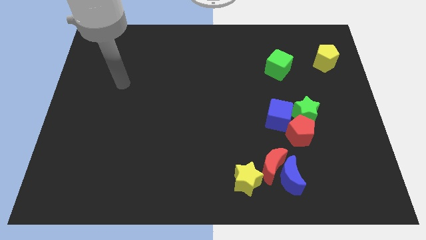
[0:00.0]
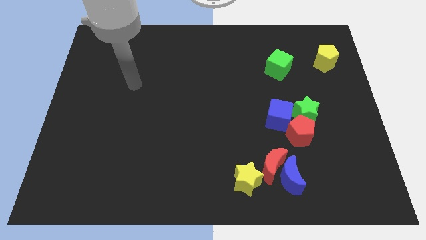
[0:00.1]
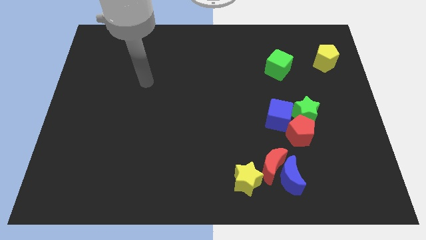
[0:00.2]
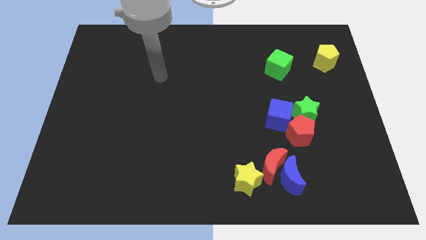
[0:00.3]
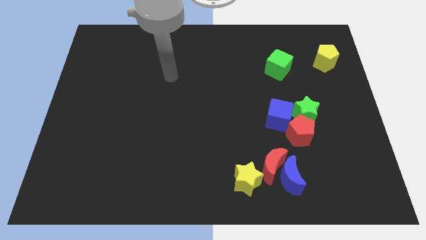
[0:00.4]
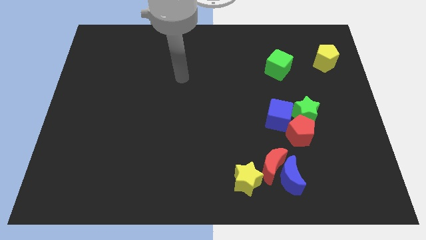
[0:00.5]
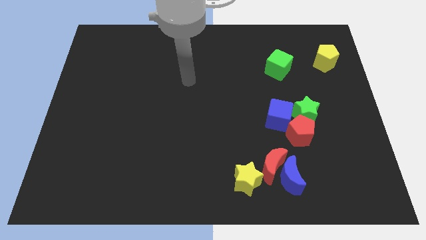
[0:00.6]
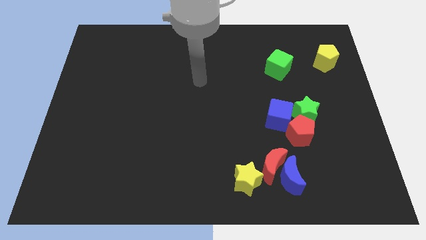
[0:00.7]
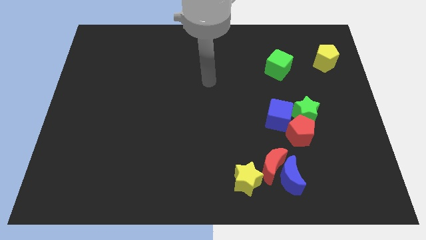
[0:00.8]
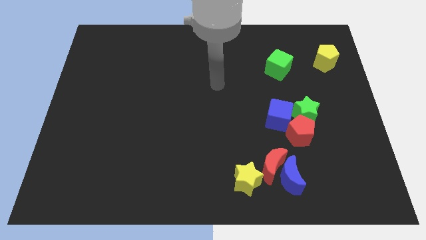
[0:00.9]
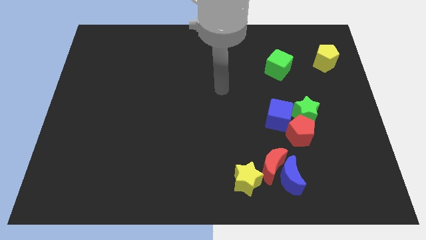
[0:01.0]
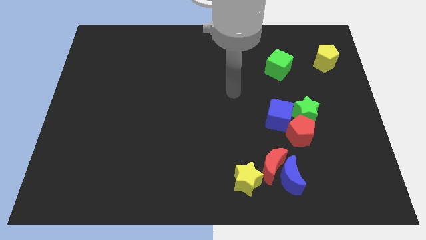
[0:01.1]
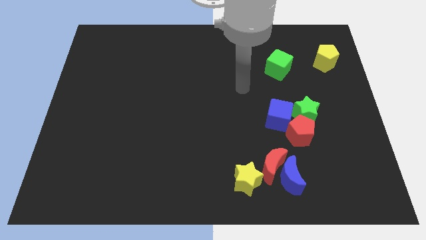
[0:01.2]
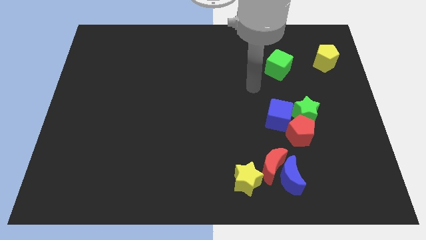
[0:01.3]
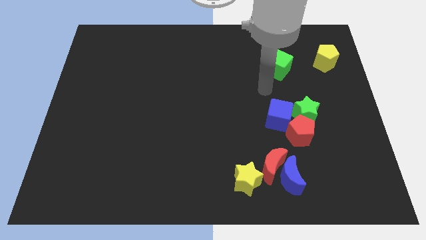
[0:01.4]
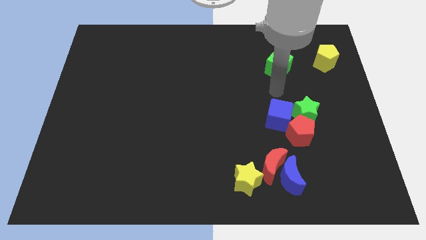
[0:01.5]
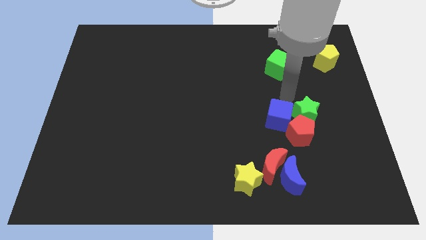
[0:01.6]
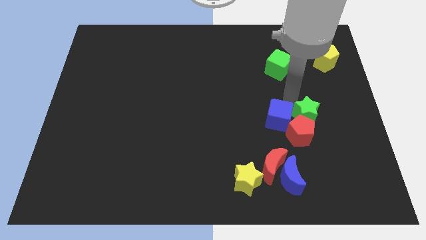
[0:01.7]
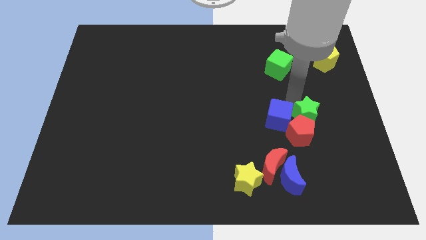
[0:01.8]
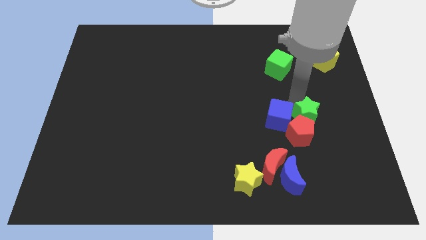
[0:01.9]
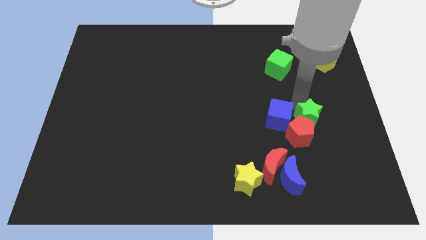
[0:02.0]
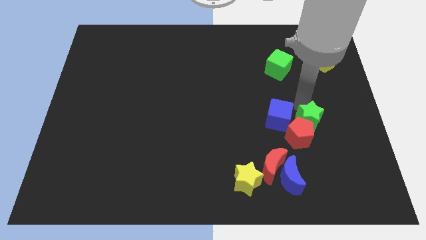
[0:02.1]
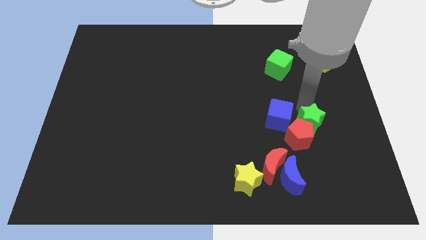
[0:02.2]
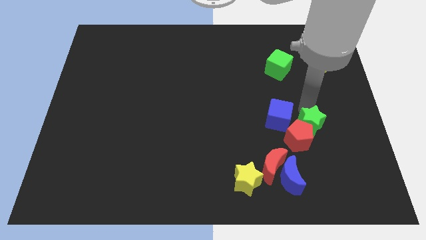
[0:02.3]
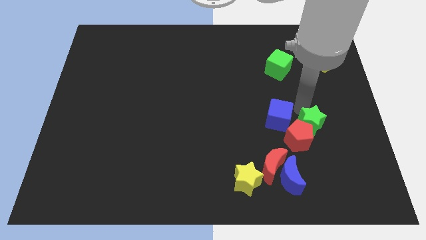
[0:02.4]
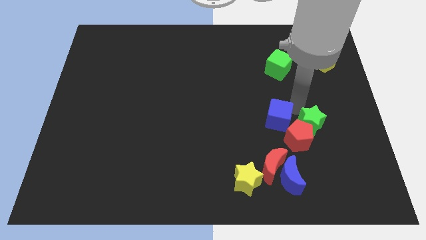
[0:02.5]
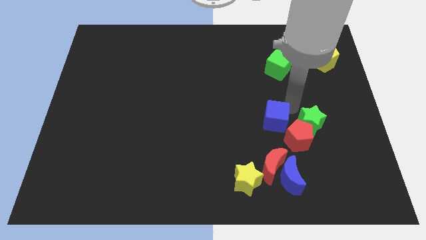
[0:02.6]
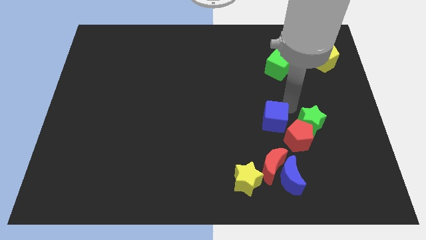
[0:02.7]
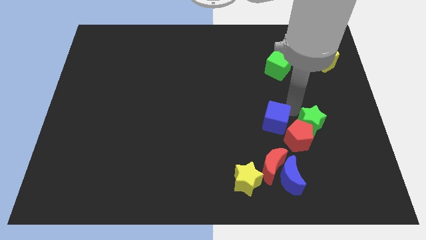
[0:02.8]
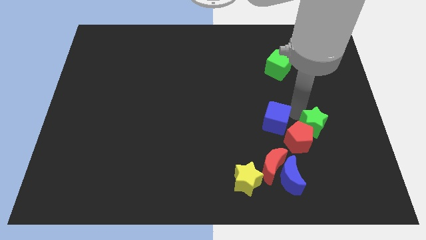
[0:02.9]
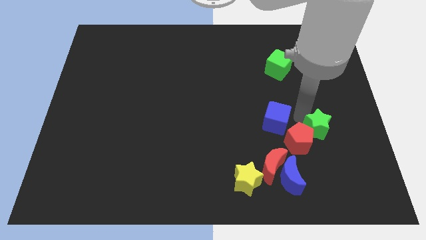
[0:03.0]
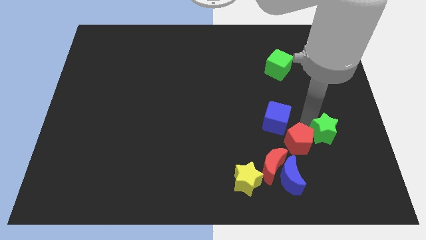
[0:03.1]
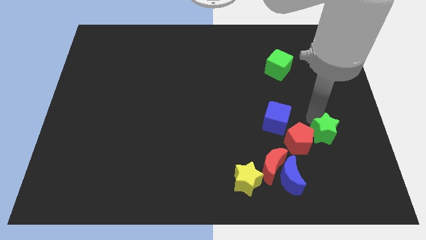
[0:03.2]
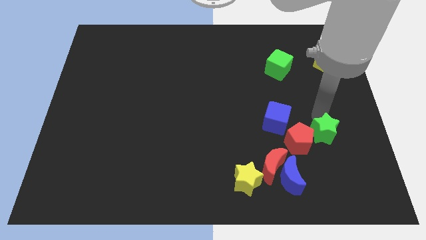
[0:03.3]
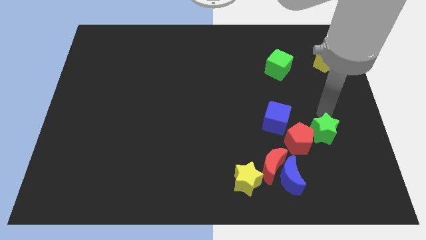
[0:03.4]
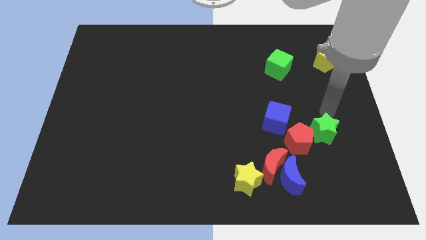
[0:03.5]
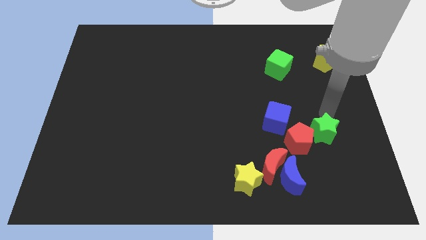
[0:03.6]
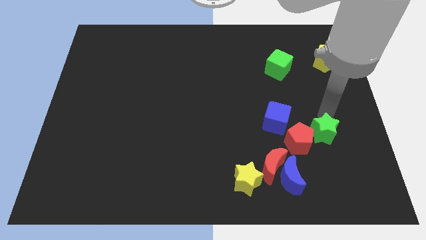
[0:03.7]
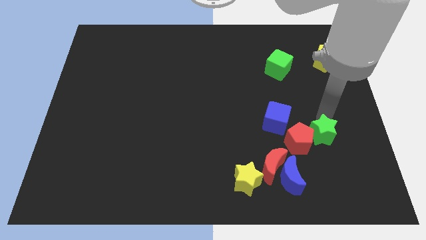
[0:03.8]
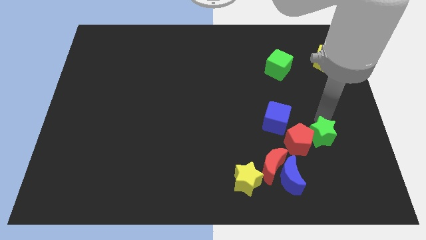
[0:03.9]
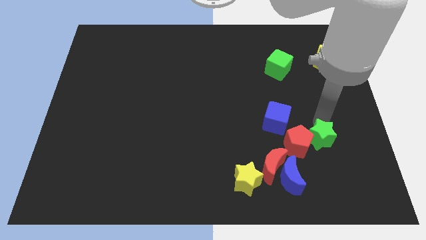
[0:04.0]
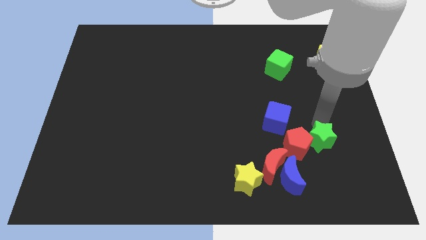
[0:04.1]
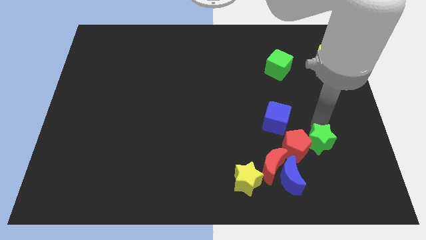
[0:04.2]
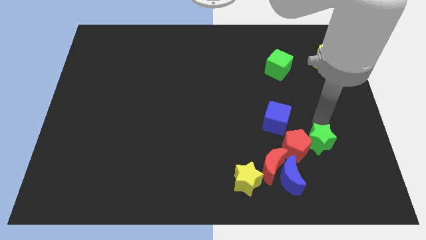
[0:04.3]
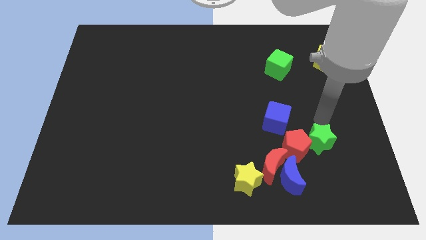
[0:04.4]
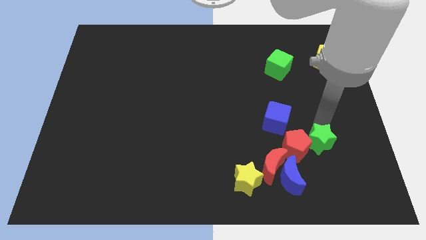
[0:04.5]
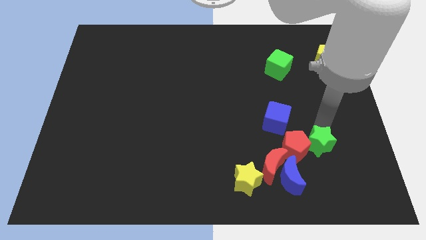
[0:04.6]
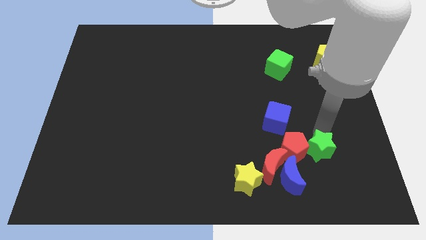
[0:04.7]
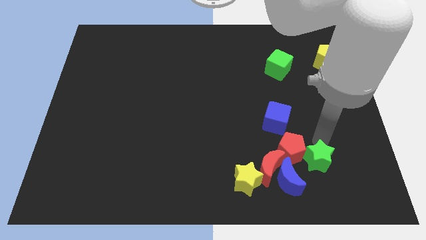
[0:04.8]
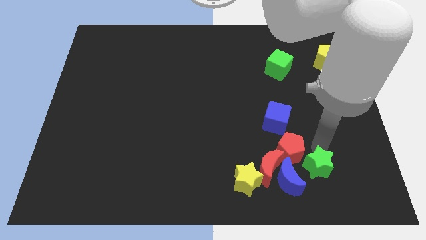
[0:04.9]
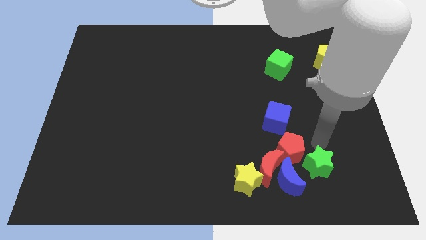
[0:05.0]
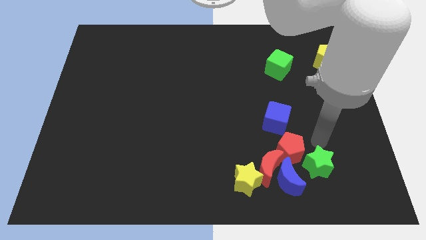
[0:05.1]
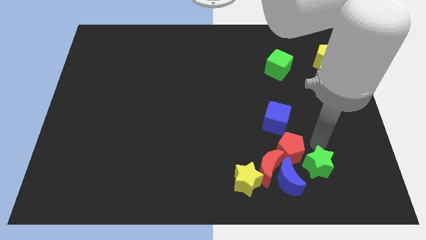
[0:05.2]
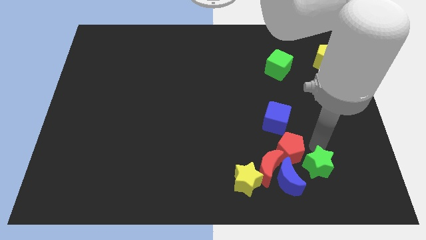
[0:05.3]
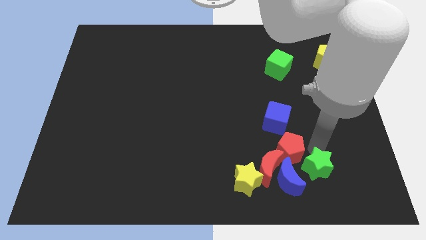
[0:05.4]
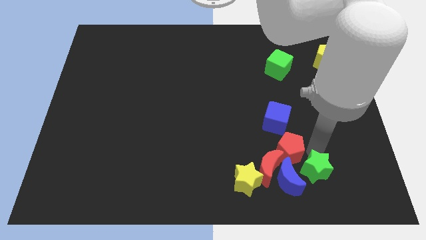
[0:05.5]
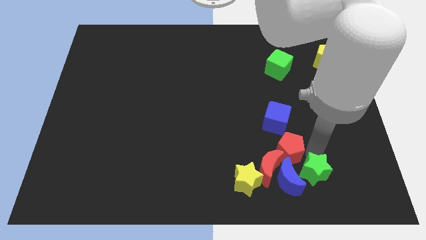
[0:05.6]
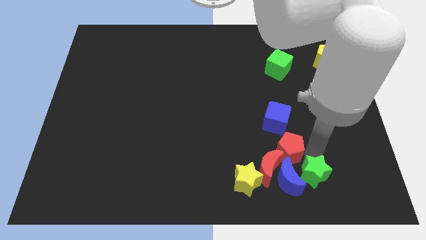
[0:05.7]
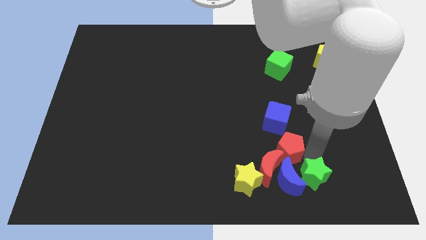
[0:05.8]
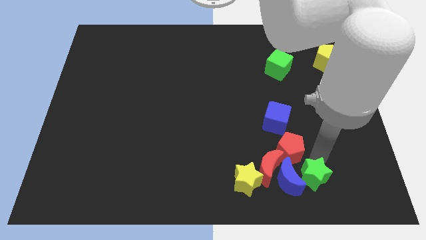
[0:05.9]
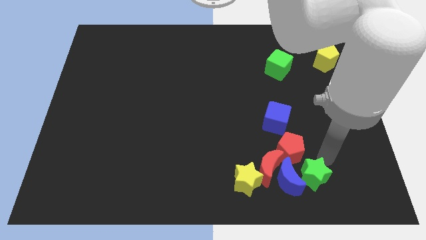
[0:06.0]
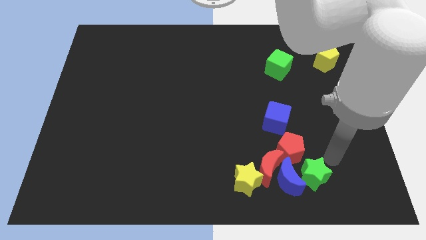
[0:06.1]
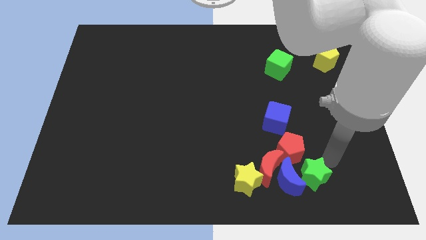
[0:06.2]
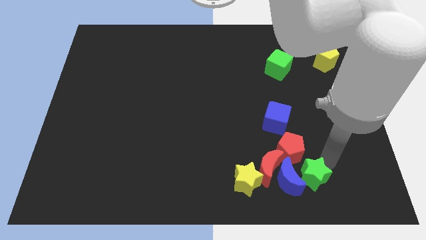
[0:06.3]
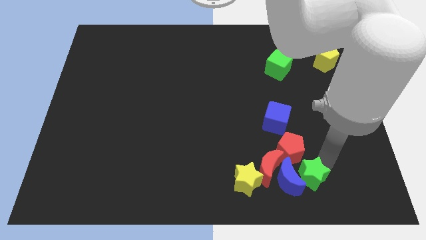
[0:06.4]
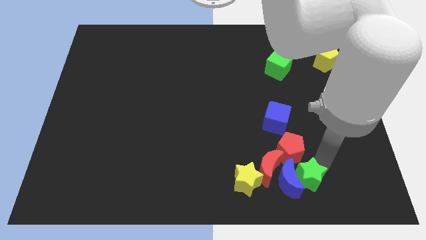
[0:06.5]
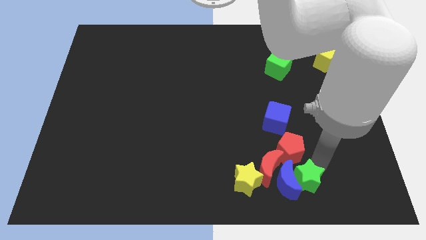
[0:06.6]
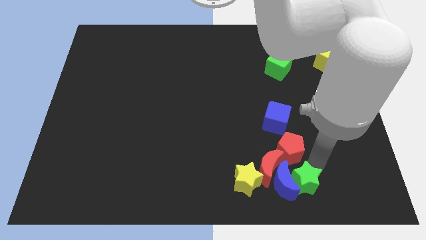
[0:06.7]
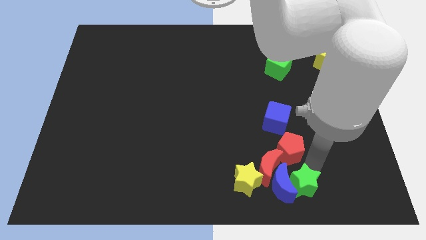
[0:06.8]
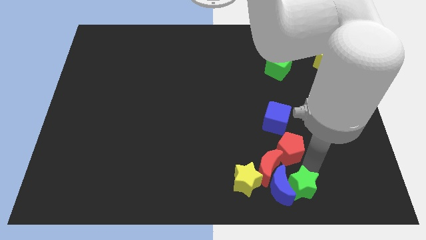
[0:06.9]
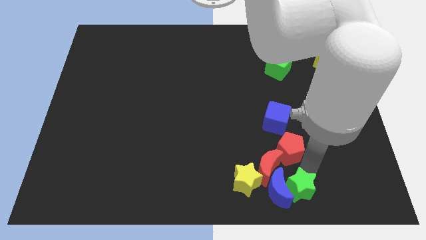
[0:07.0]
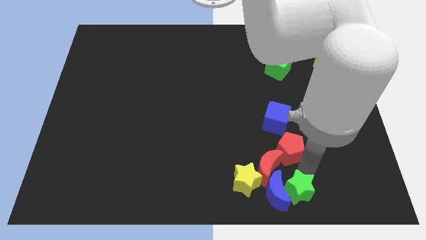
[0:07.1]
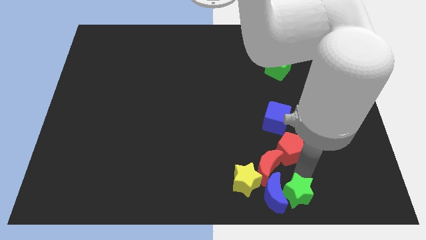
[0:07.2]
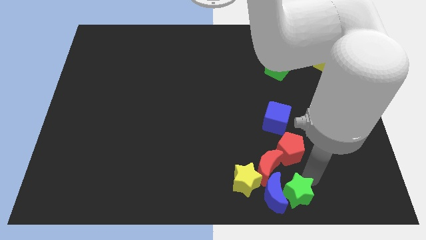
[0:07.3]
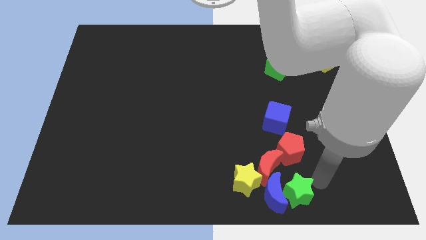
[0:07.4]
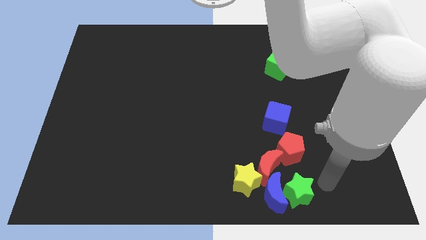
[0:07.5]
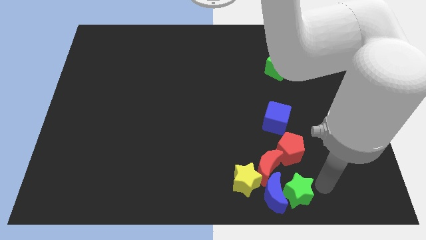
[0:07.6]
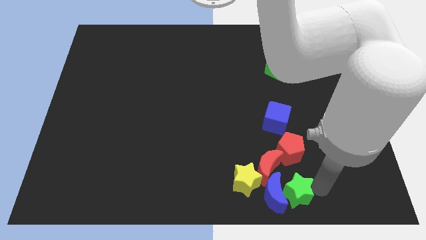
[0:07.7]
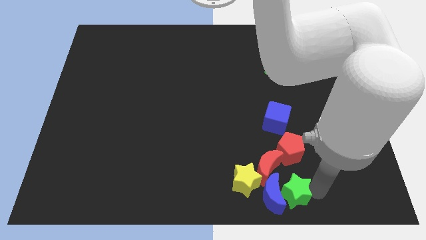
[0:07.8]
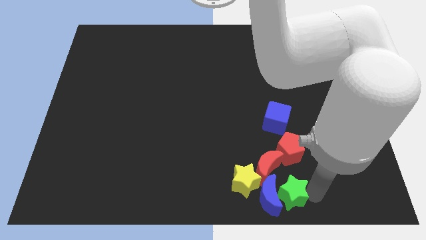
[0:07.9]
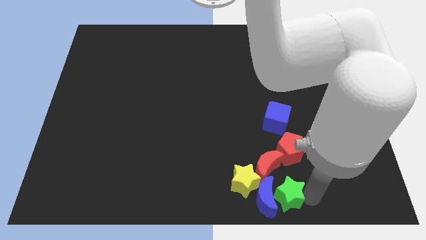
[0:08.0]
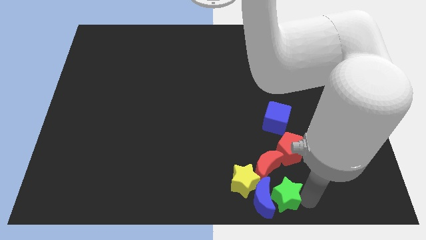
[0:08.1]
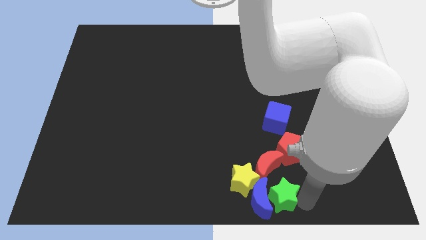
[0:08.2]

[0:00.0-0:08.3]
put the green star to the bottom side
